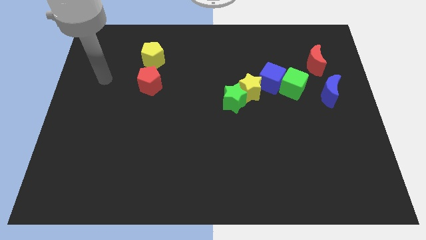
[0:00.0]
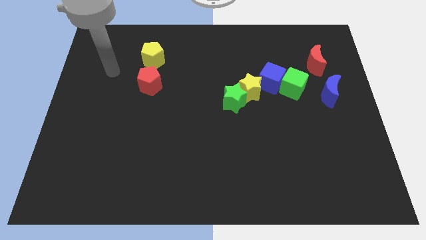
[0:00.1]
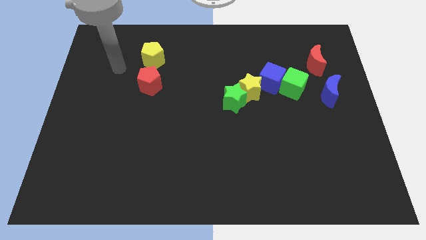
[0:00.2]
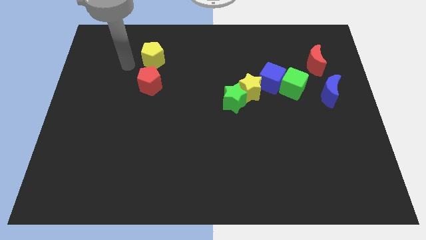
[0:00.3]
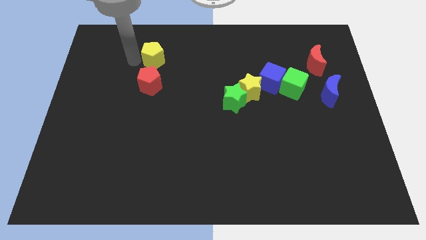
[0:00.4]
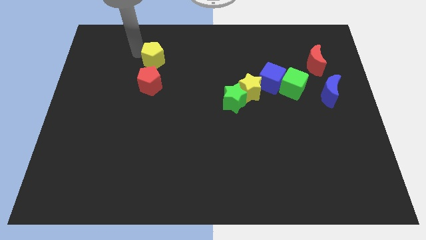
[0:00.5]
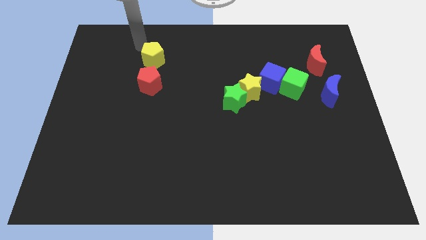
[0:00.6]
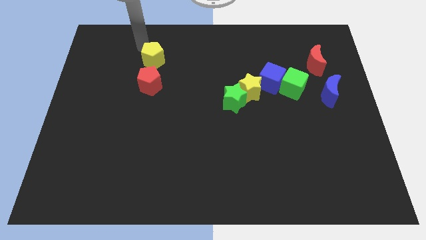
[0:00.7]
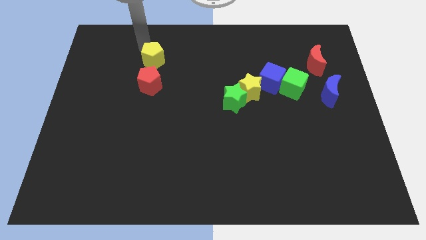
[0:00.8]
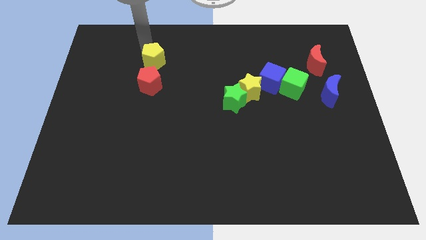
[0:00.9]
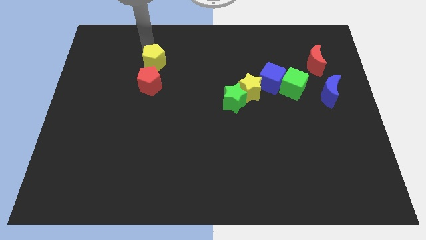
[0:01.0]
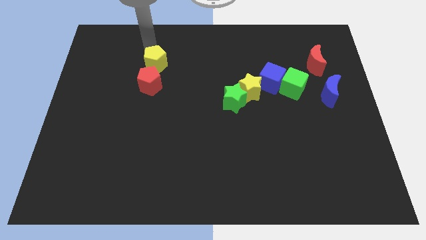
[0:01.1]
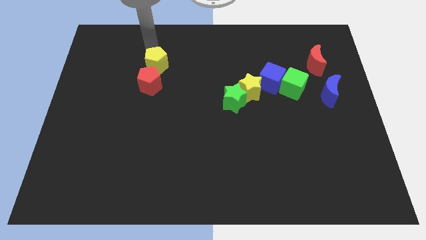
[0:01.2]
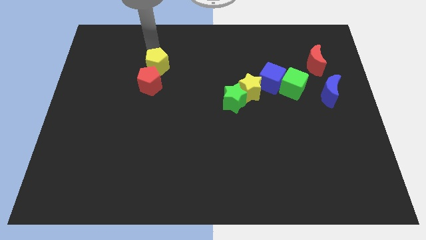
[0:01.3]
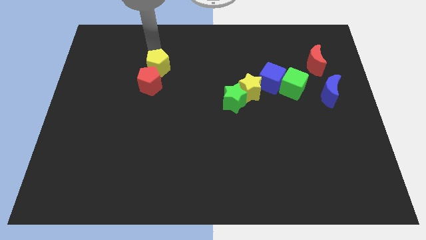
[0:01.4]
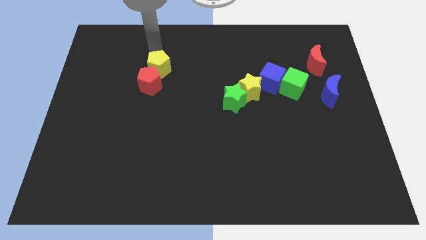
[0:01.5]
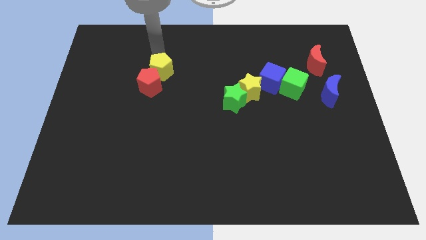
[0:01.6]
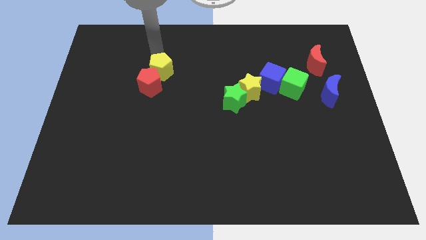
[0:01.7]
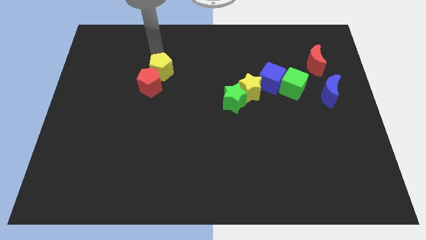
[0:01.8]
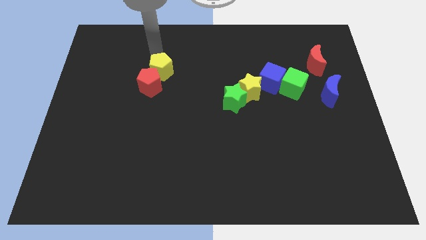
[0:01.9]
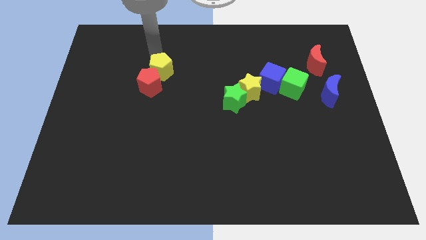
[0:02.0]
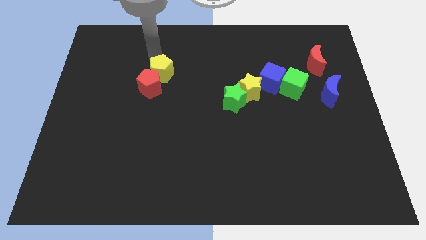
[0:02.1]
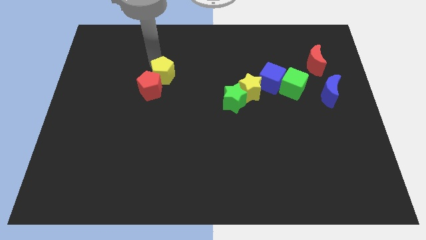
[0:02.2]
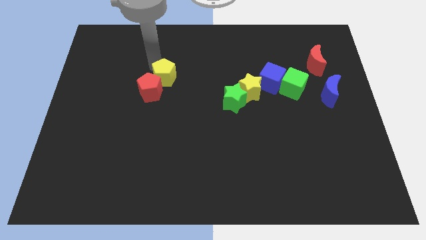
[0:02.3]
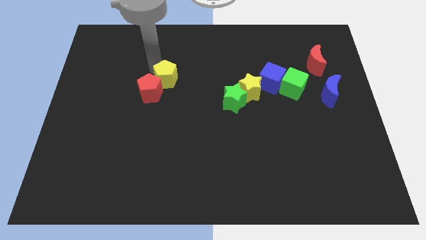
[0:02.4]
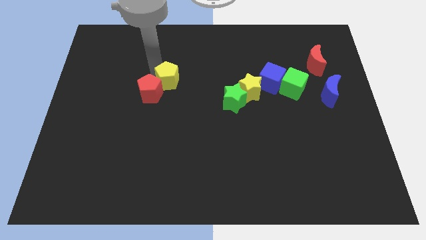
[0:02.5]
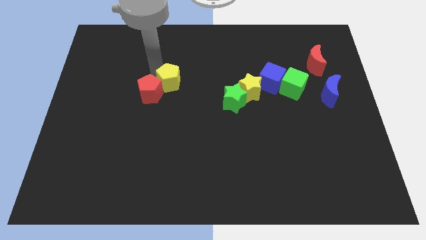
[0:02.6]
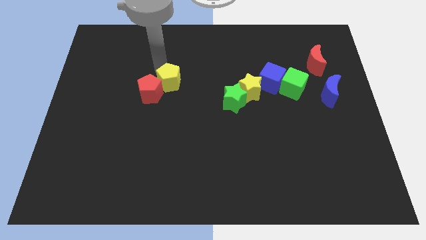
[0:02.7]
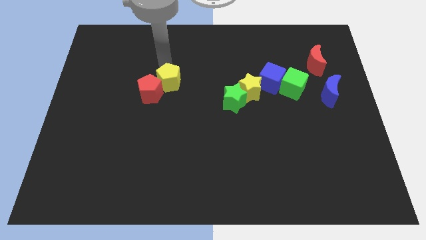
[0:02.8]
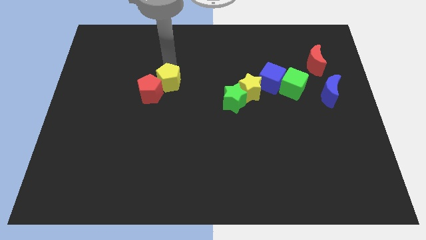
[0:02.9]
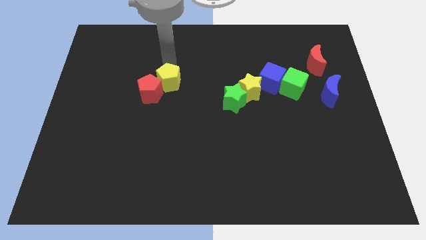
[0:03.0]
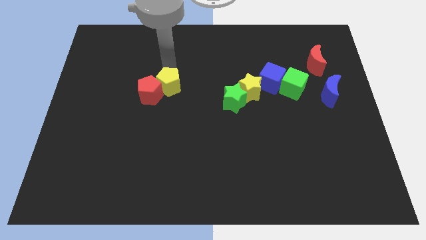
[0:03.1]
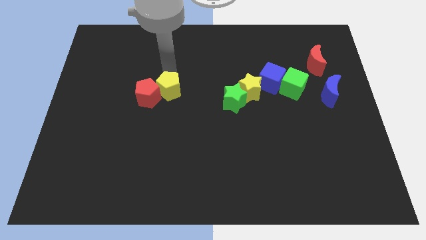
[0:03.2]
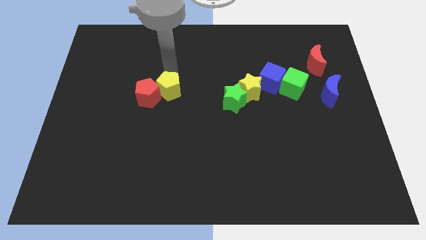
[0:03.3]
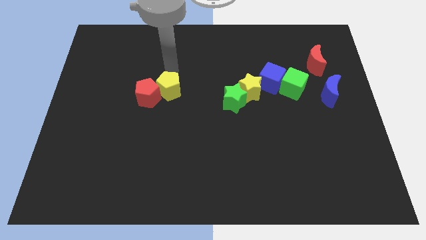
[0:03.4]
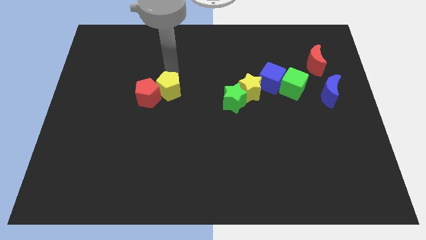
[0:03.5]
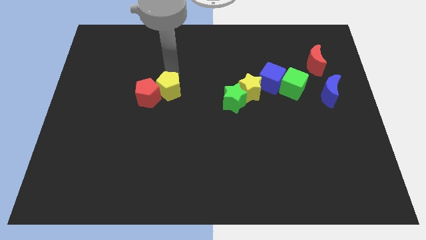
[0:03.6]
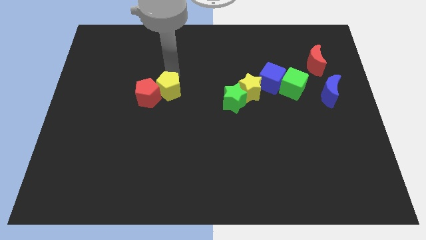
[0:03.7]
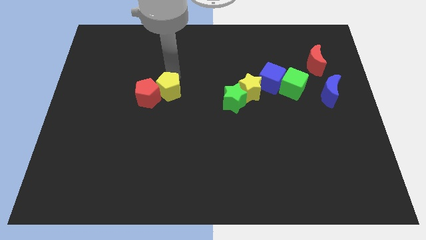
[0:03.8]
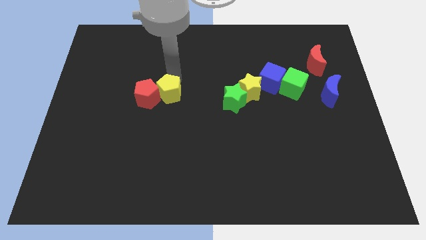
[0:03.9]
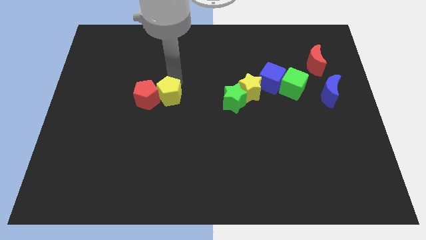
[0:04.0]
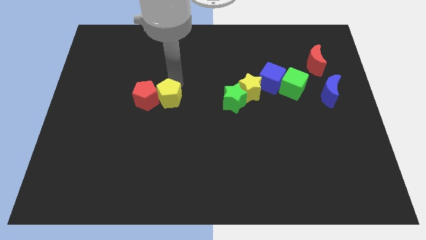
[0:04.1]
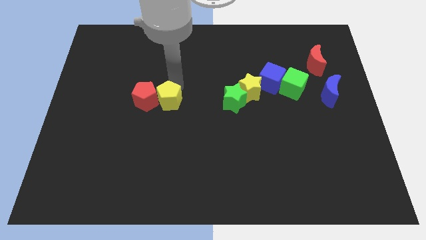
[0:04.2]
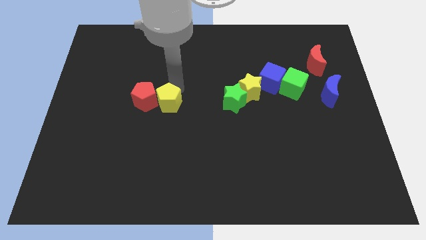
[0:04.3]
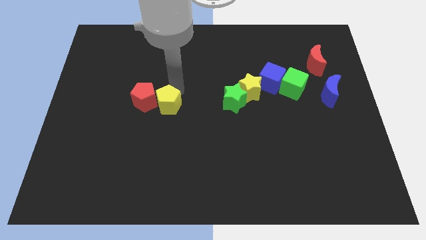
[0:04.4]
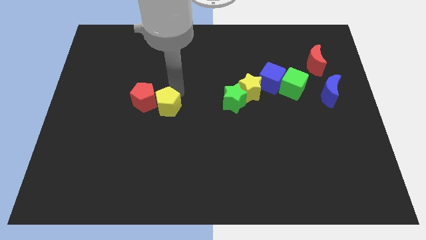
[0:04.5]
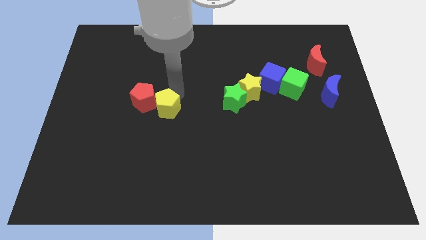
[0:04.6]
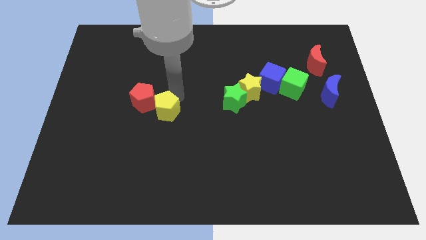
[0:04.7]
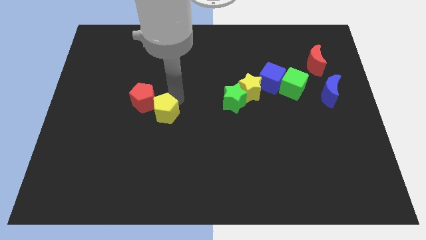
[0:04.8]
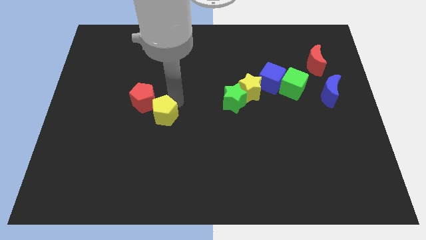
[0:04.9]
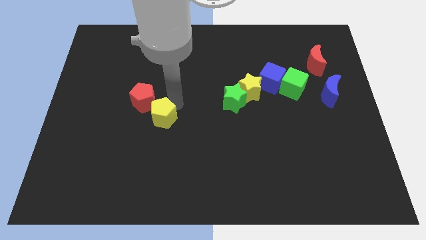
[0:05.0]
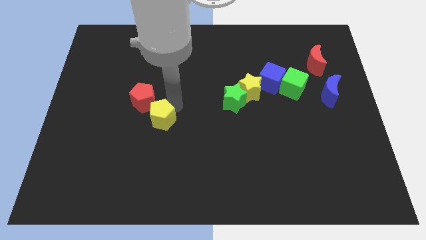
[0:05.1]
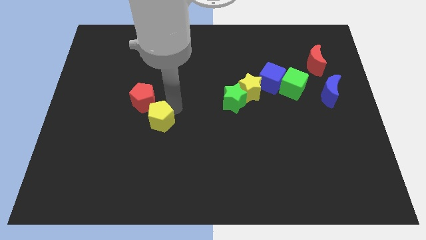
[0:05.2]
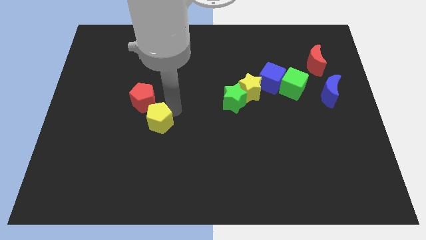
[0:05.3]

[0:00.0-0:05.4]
slide the yellow pentagon downwards

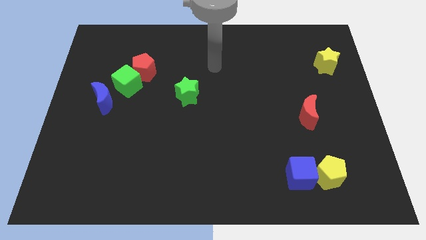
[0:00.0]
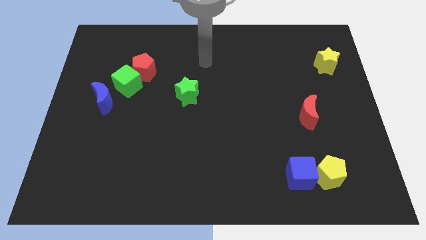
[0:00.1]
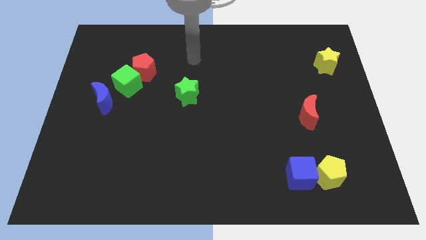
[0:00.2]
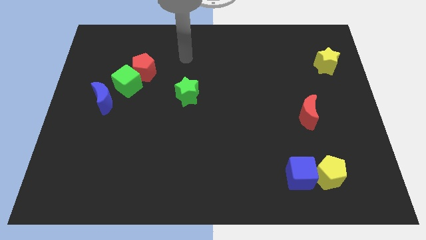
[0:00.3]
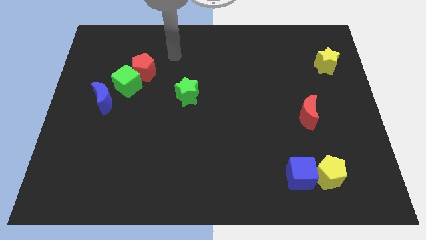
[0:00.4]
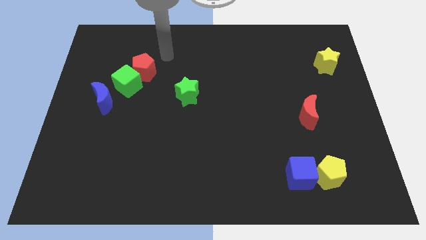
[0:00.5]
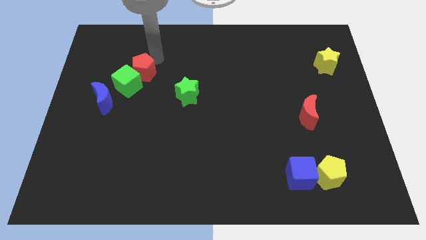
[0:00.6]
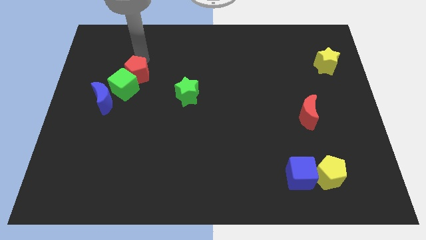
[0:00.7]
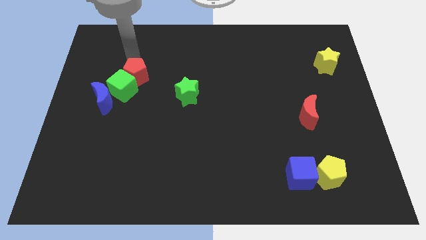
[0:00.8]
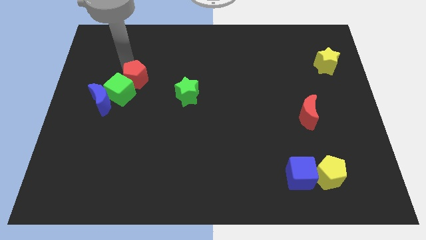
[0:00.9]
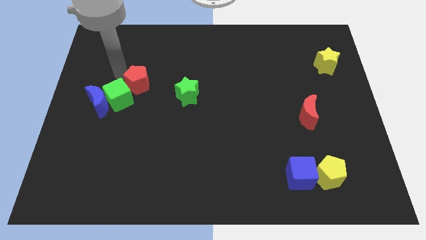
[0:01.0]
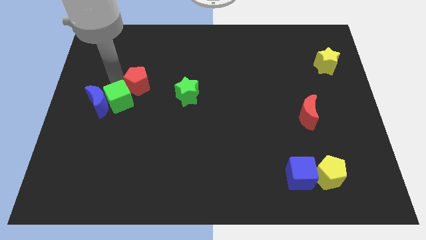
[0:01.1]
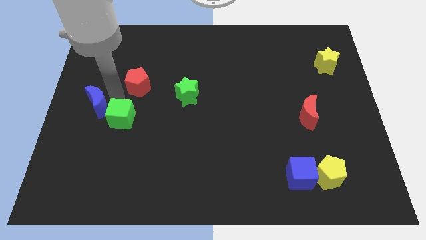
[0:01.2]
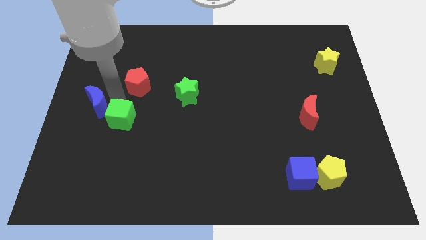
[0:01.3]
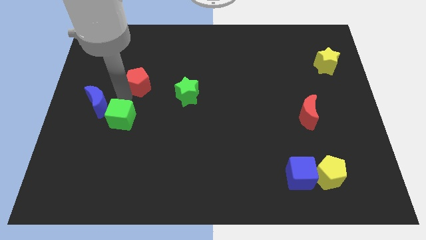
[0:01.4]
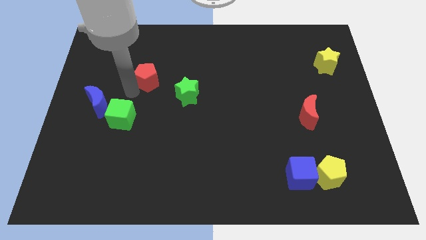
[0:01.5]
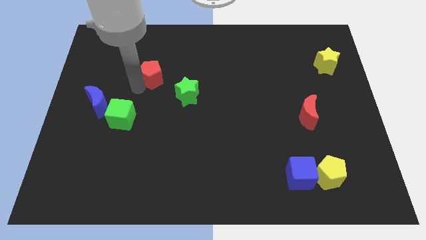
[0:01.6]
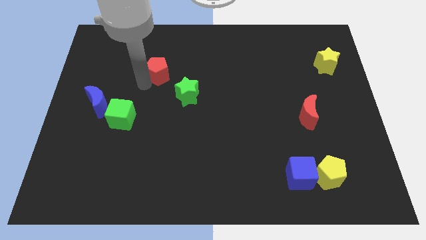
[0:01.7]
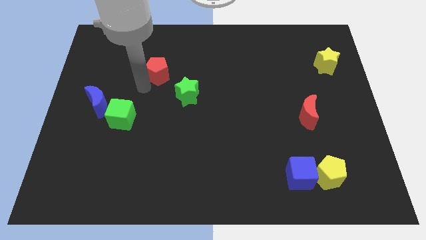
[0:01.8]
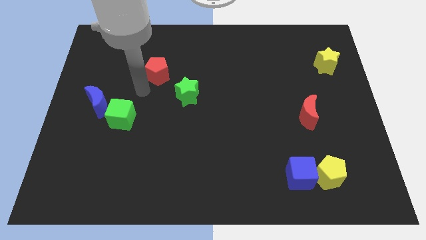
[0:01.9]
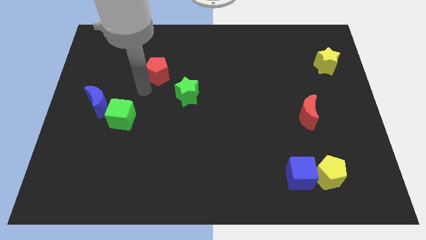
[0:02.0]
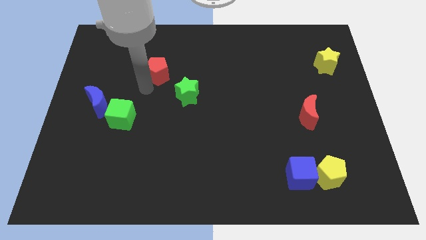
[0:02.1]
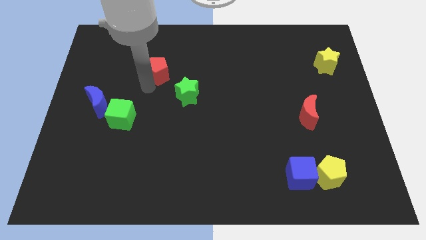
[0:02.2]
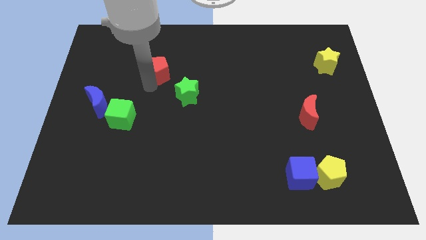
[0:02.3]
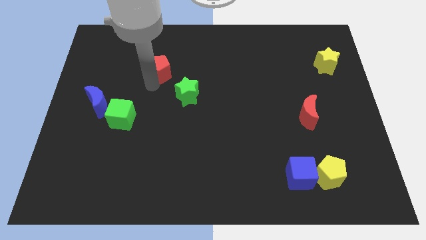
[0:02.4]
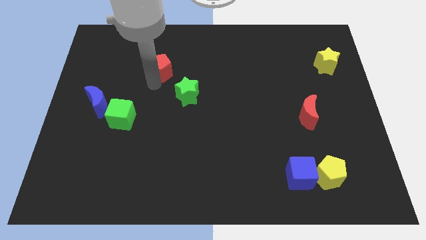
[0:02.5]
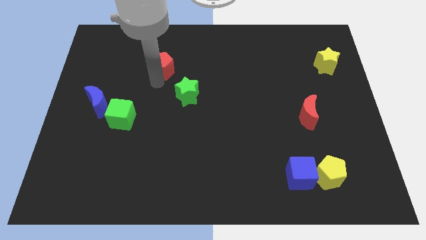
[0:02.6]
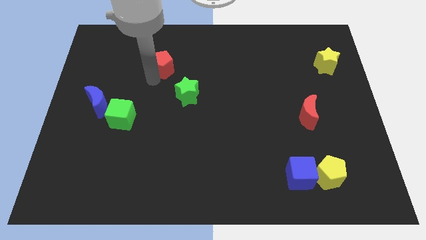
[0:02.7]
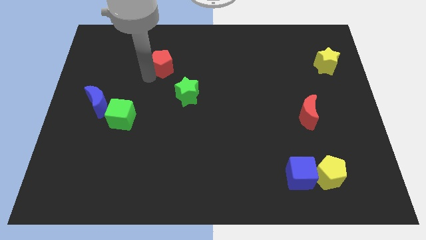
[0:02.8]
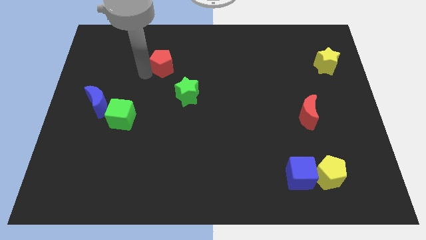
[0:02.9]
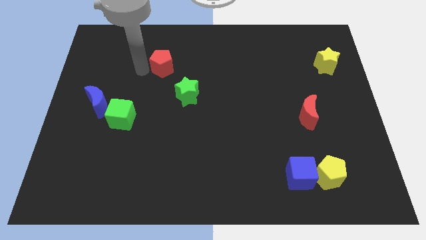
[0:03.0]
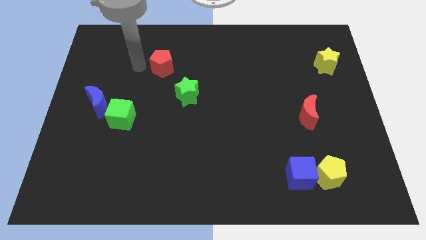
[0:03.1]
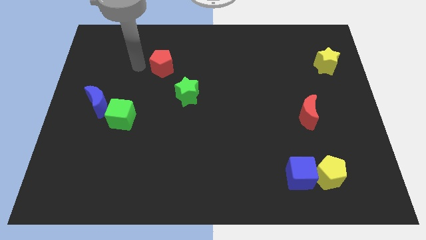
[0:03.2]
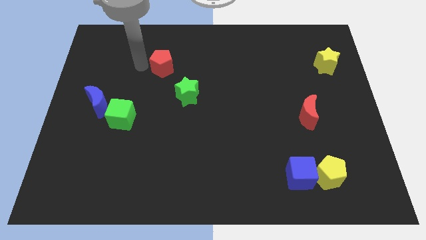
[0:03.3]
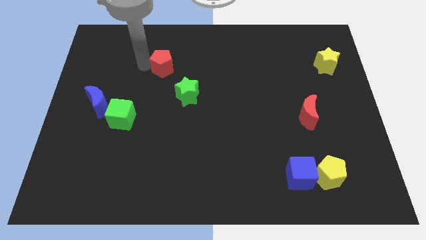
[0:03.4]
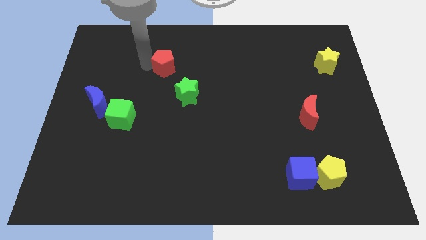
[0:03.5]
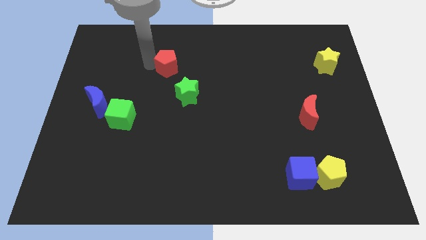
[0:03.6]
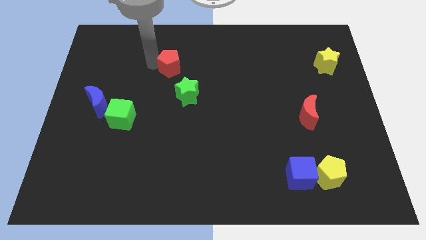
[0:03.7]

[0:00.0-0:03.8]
slightly slide the red pentagon right
